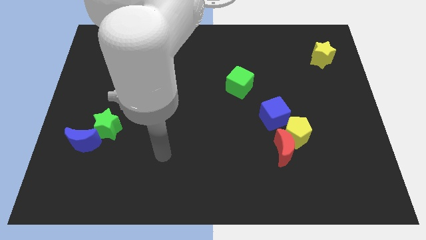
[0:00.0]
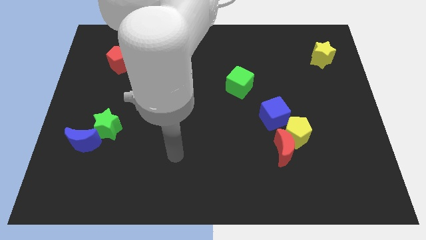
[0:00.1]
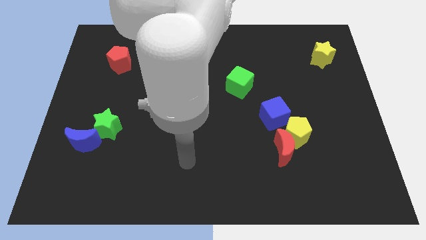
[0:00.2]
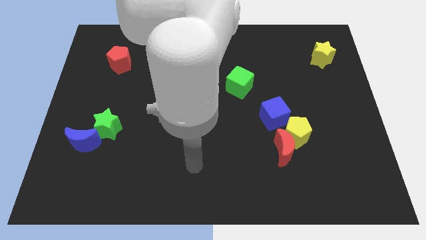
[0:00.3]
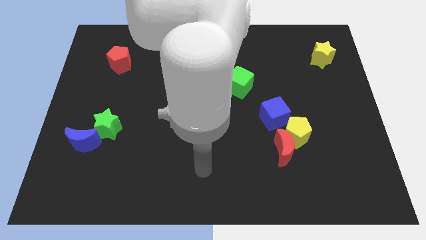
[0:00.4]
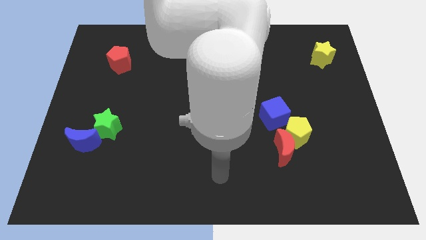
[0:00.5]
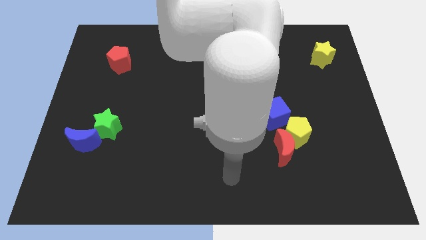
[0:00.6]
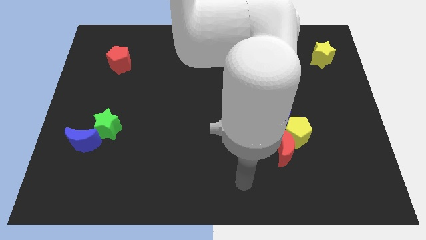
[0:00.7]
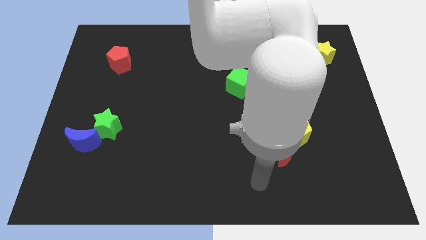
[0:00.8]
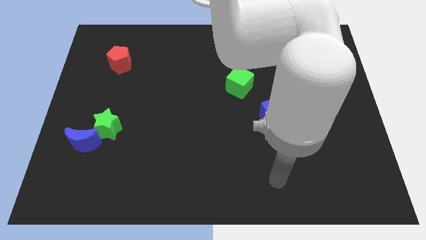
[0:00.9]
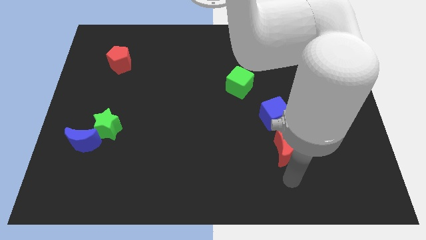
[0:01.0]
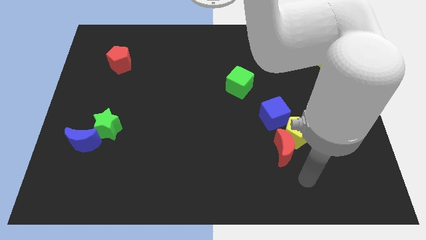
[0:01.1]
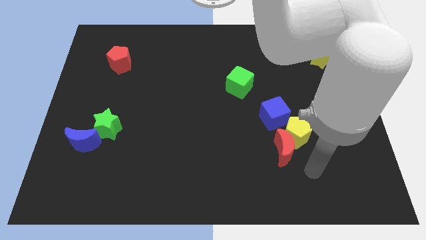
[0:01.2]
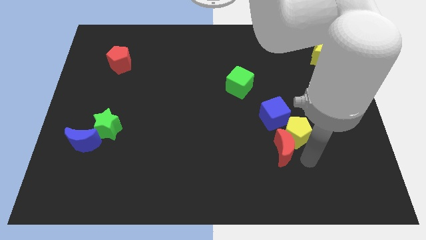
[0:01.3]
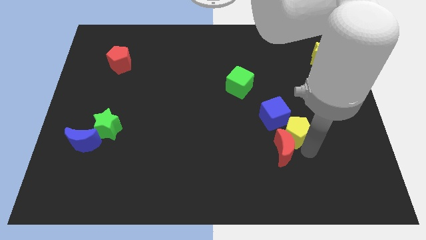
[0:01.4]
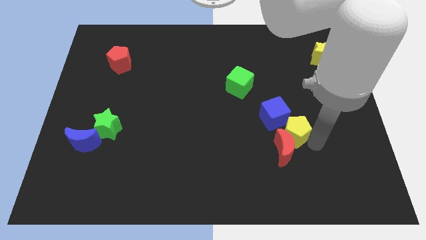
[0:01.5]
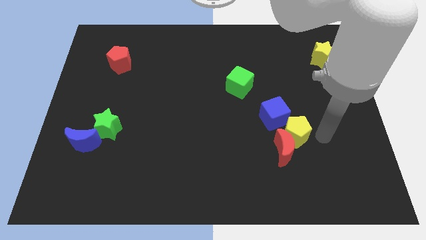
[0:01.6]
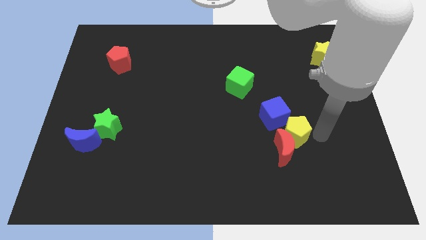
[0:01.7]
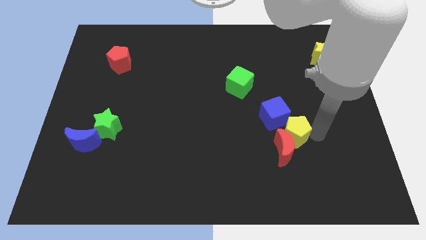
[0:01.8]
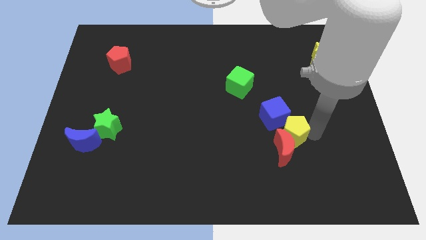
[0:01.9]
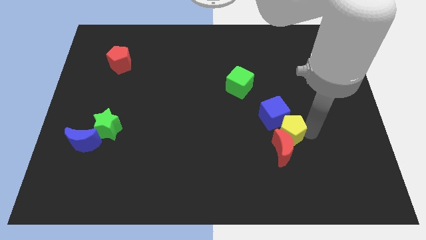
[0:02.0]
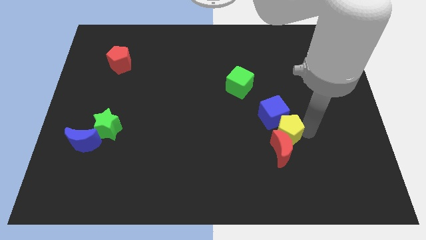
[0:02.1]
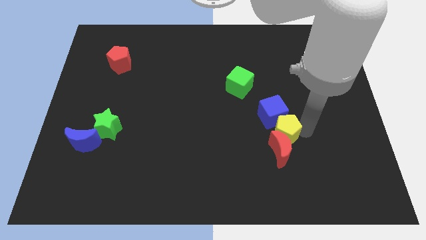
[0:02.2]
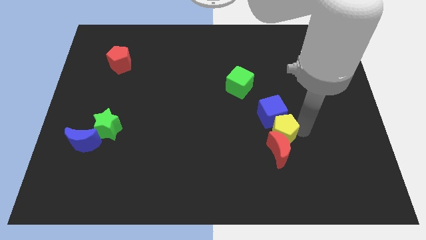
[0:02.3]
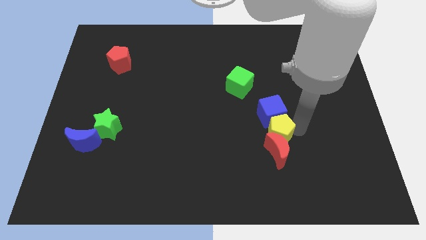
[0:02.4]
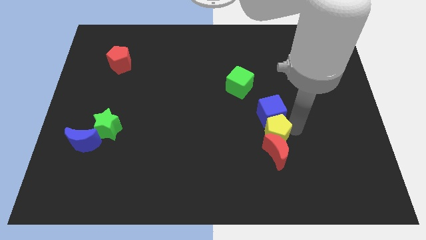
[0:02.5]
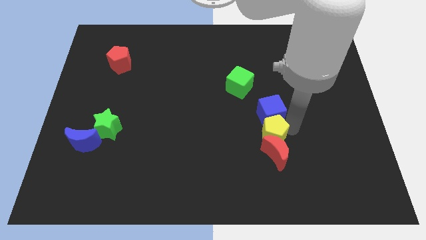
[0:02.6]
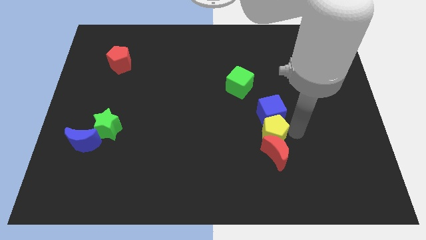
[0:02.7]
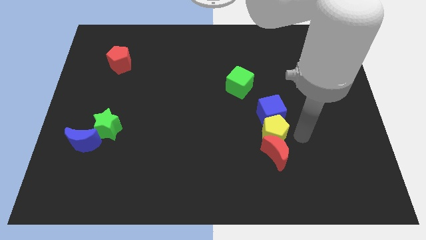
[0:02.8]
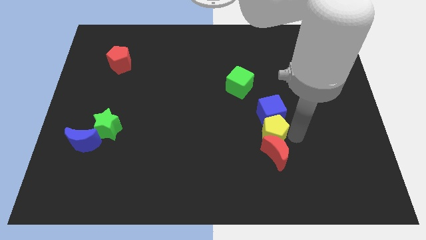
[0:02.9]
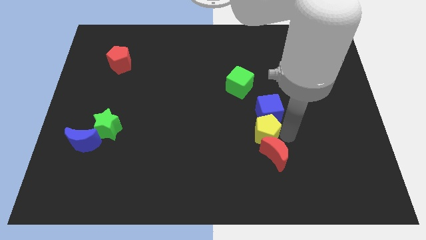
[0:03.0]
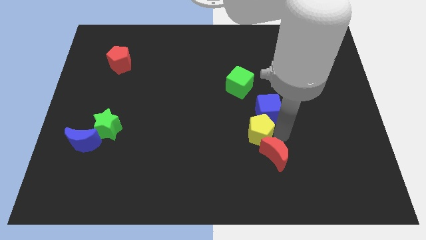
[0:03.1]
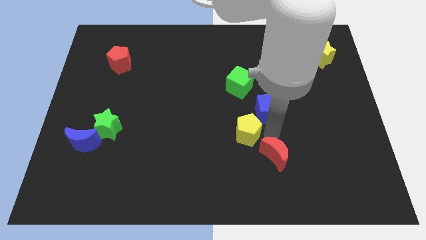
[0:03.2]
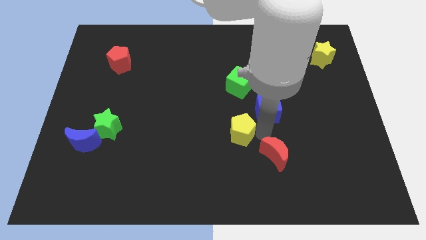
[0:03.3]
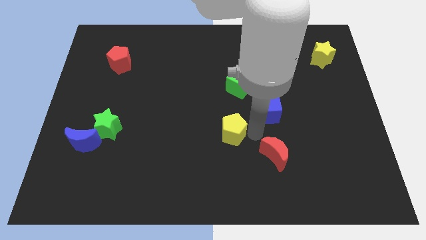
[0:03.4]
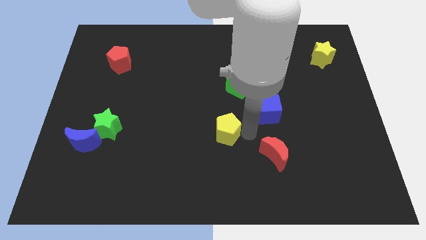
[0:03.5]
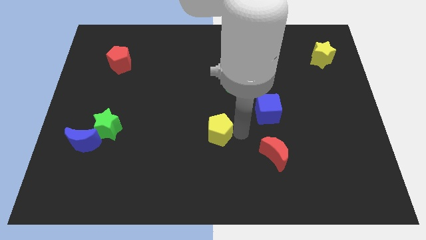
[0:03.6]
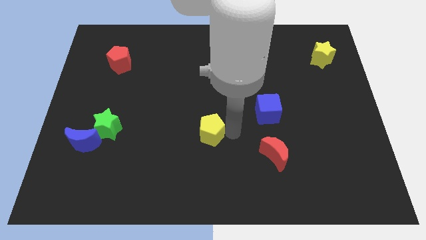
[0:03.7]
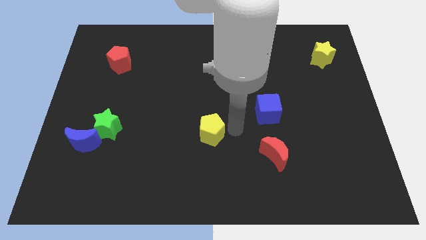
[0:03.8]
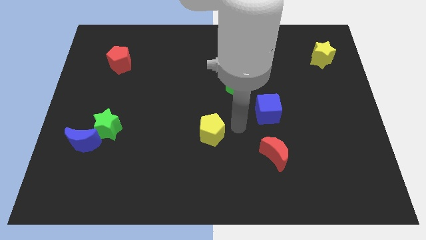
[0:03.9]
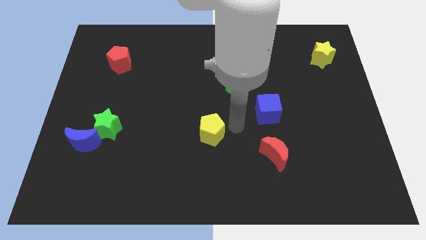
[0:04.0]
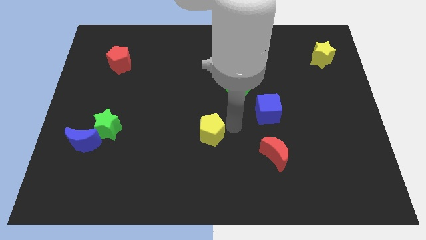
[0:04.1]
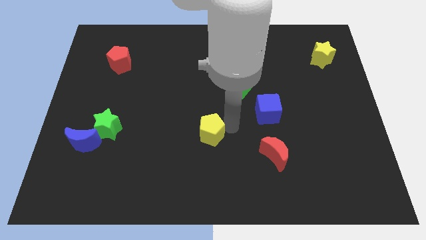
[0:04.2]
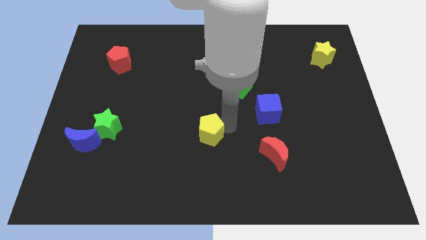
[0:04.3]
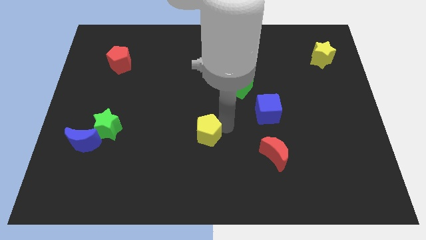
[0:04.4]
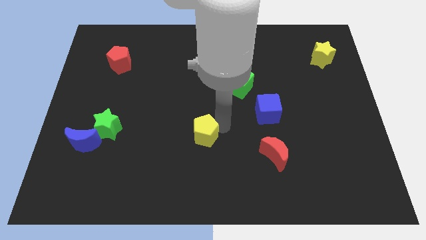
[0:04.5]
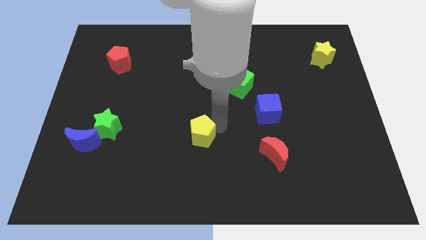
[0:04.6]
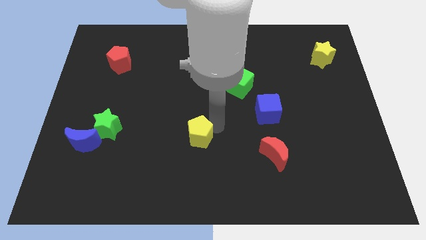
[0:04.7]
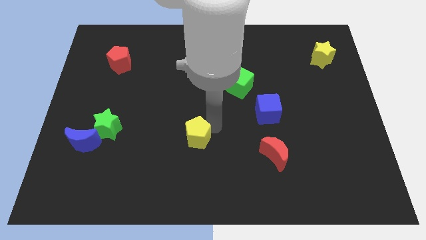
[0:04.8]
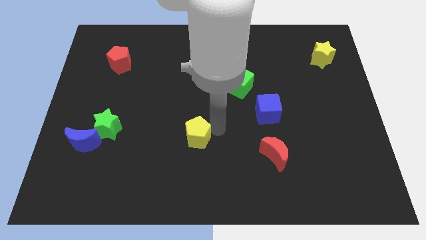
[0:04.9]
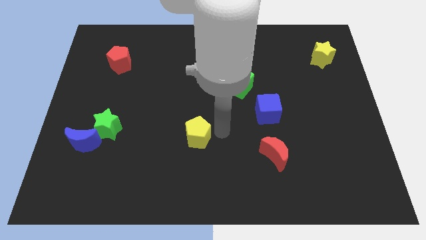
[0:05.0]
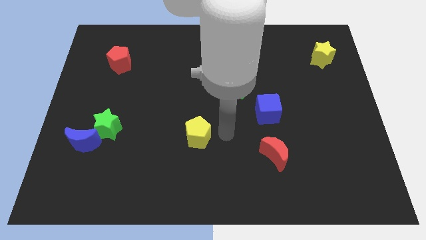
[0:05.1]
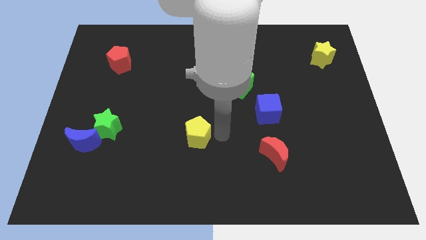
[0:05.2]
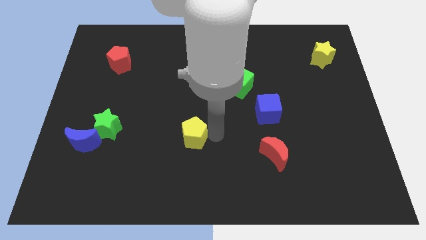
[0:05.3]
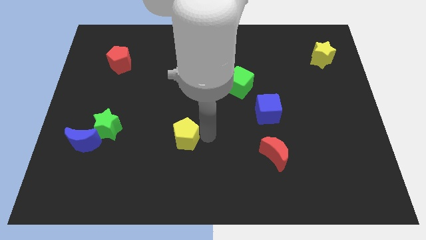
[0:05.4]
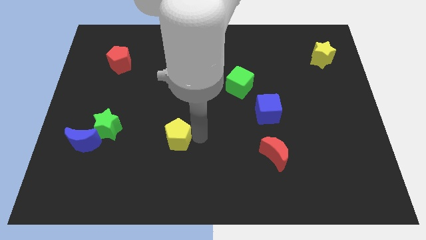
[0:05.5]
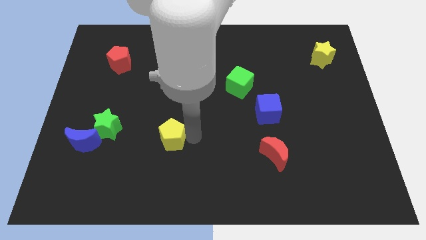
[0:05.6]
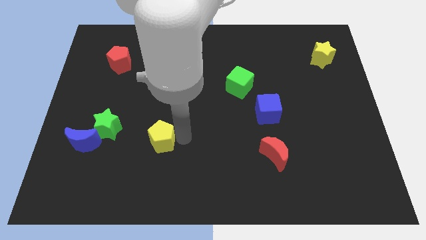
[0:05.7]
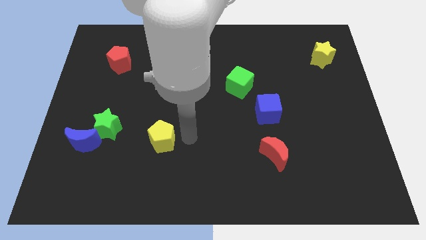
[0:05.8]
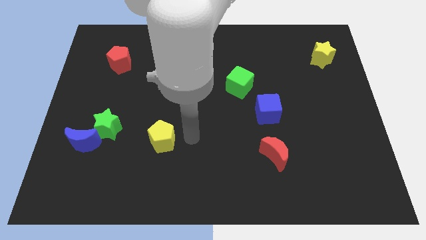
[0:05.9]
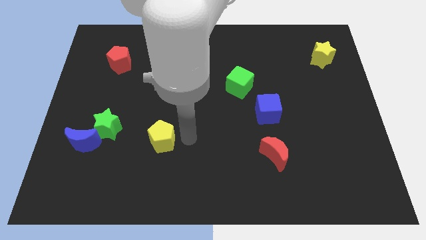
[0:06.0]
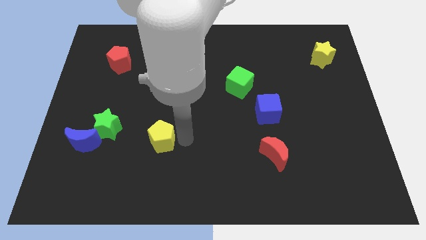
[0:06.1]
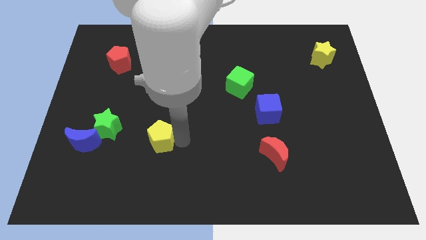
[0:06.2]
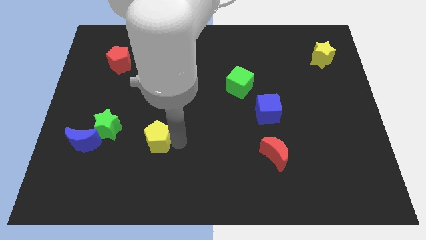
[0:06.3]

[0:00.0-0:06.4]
move the yellow pentagon to the right side of the blue moon
